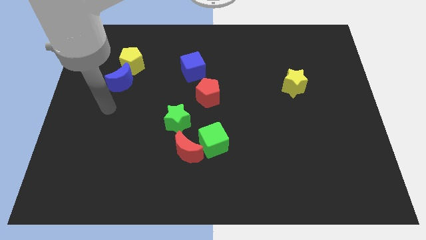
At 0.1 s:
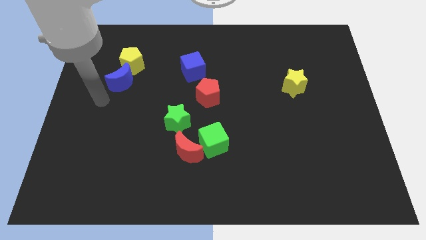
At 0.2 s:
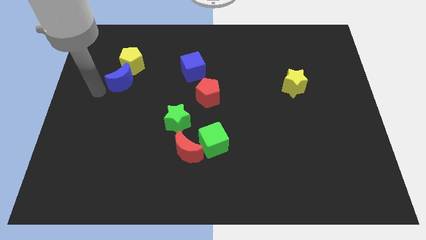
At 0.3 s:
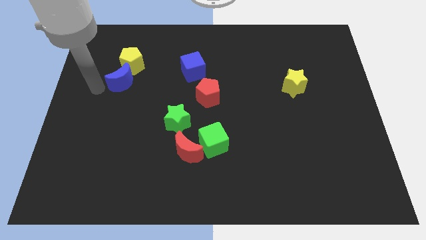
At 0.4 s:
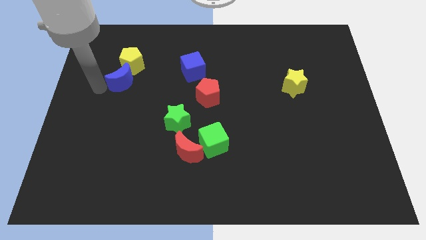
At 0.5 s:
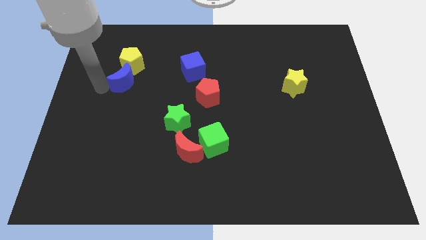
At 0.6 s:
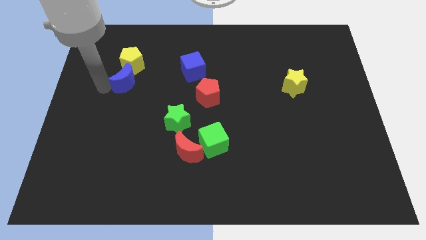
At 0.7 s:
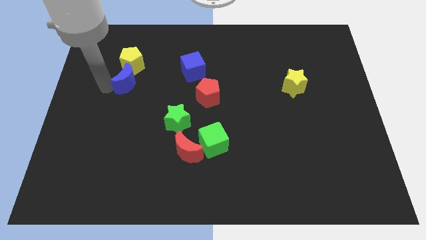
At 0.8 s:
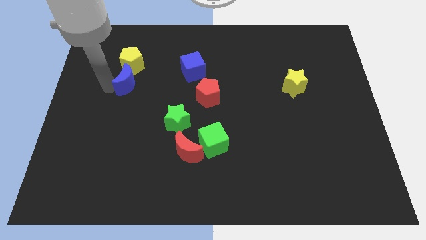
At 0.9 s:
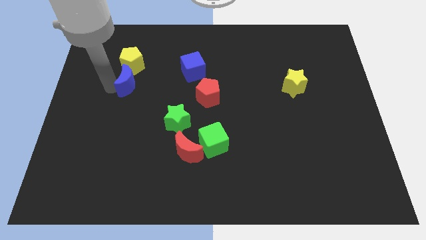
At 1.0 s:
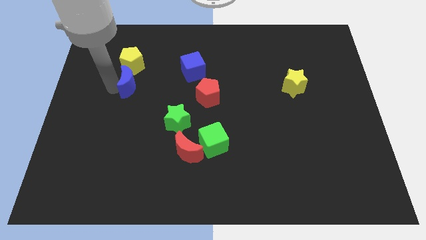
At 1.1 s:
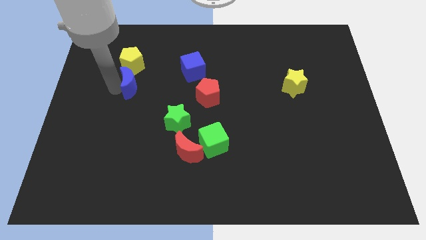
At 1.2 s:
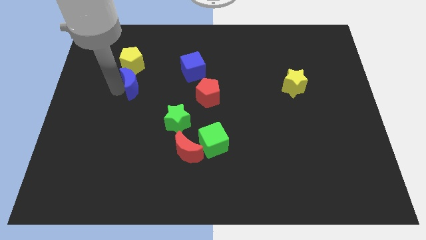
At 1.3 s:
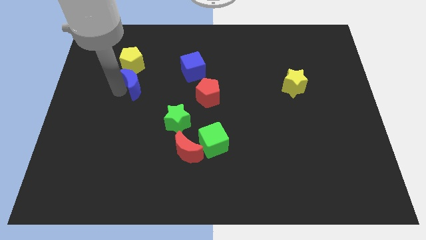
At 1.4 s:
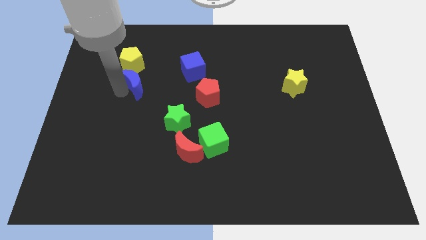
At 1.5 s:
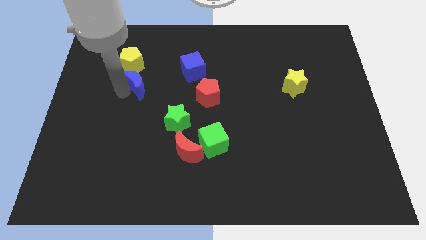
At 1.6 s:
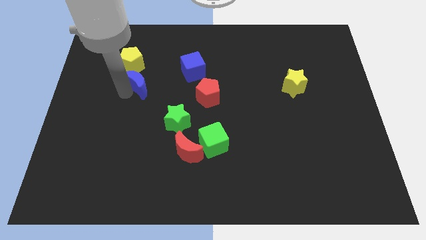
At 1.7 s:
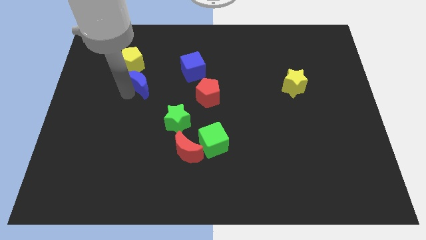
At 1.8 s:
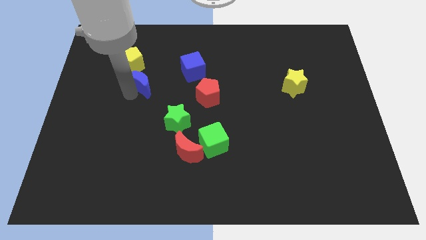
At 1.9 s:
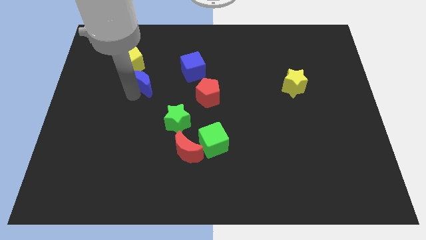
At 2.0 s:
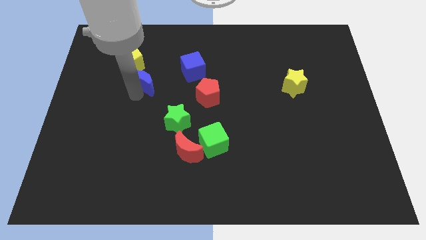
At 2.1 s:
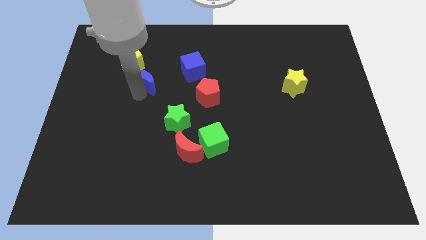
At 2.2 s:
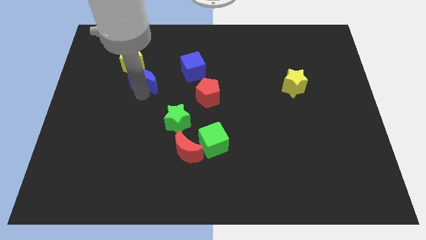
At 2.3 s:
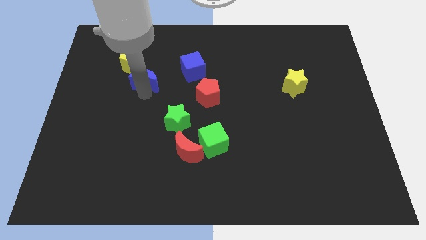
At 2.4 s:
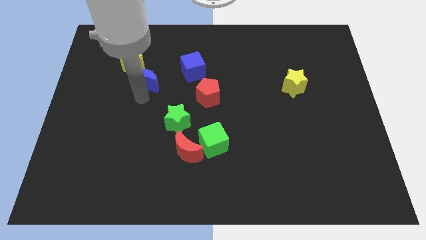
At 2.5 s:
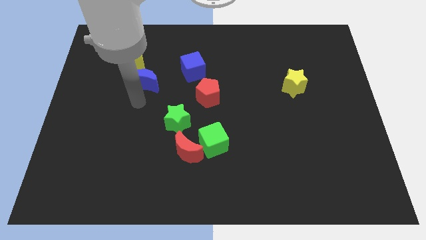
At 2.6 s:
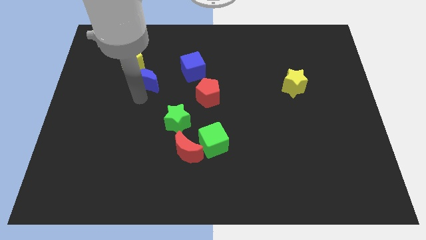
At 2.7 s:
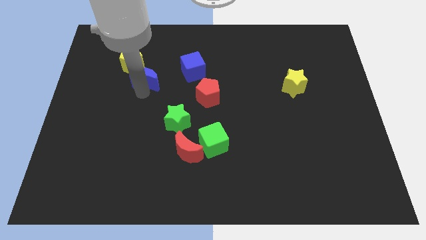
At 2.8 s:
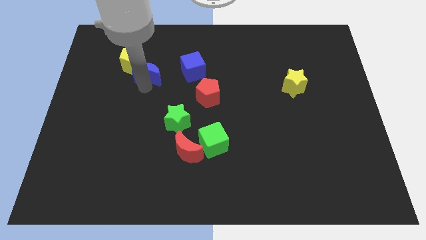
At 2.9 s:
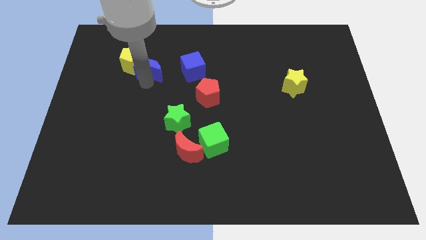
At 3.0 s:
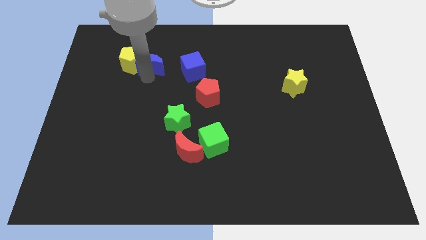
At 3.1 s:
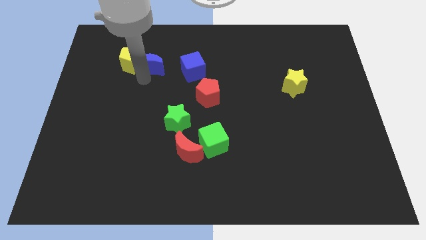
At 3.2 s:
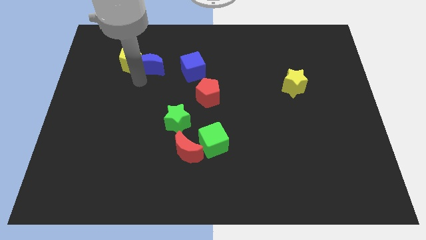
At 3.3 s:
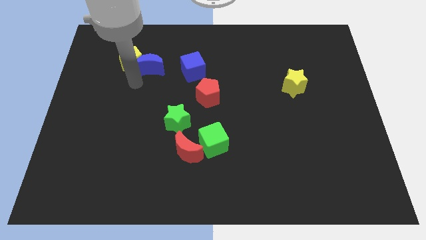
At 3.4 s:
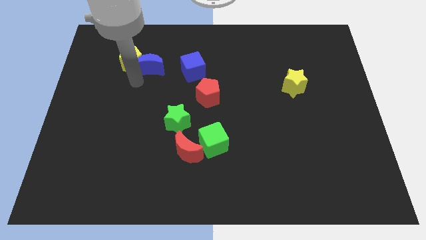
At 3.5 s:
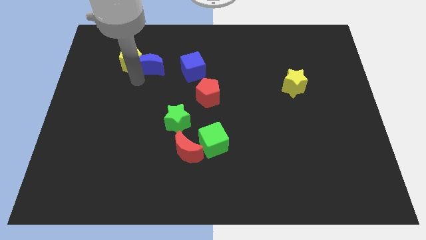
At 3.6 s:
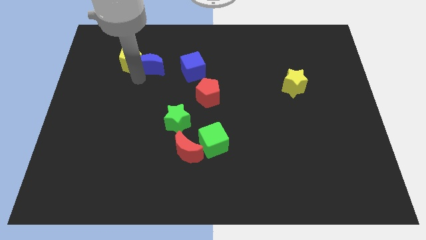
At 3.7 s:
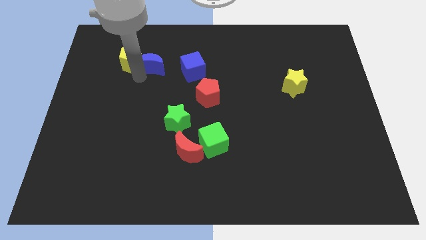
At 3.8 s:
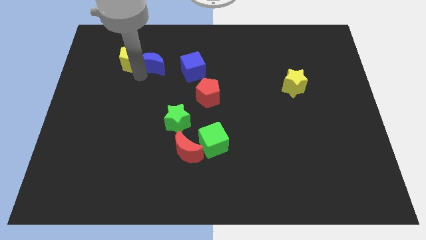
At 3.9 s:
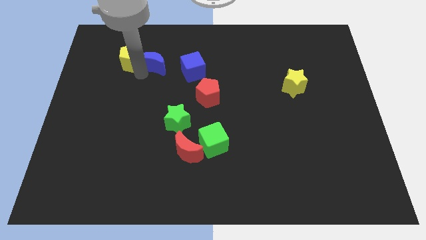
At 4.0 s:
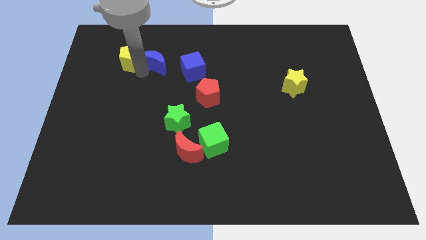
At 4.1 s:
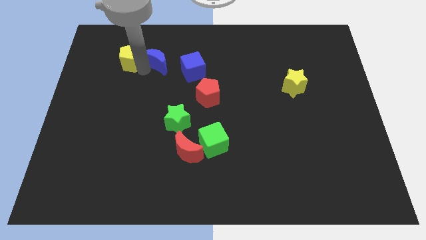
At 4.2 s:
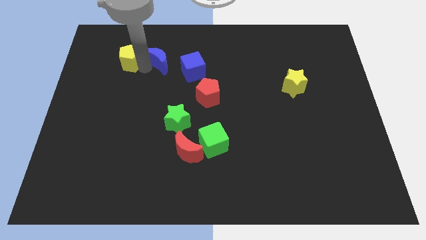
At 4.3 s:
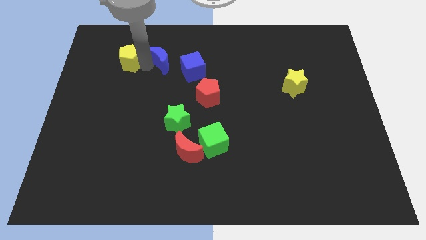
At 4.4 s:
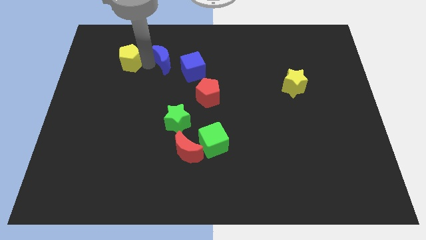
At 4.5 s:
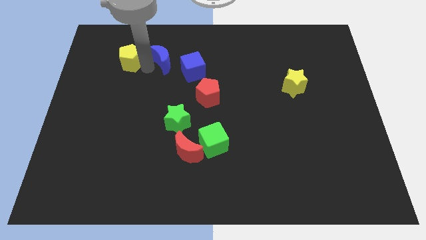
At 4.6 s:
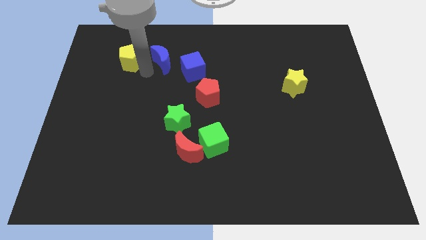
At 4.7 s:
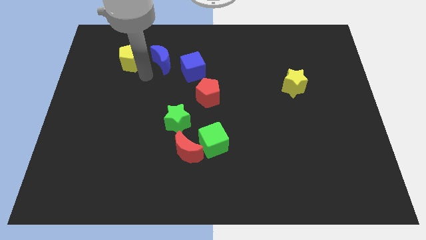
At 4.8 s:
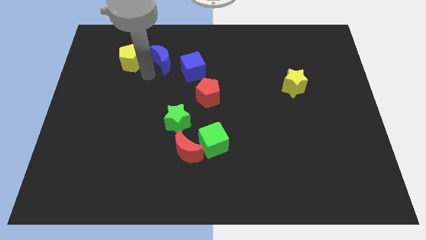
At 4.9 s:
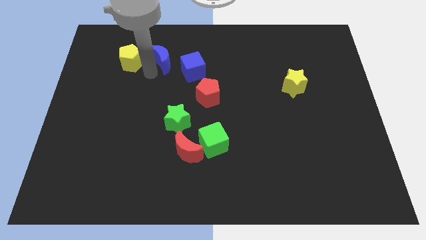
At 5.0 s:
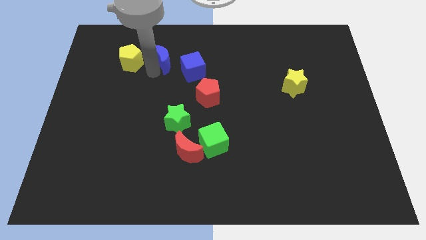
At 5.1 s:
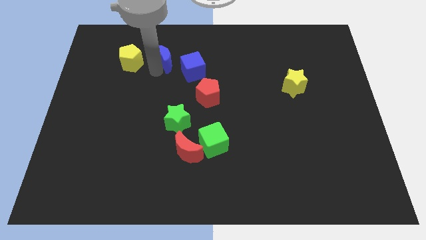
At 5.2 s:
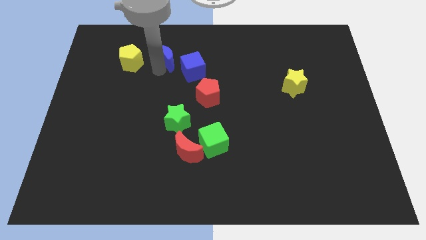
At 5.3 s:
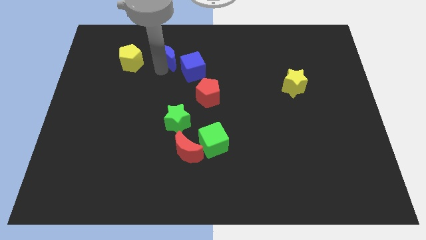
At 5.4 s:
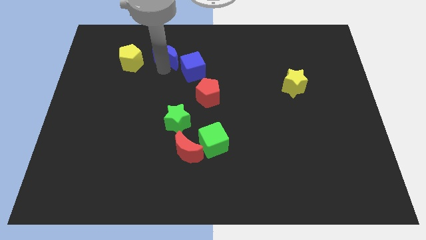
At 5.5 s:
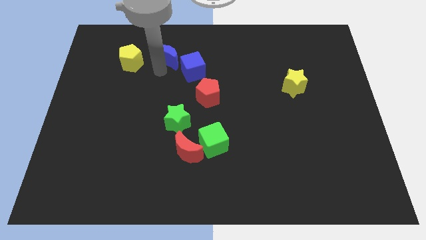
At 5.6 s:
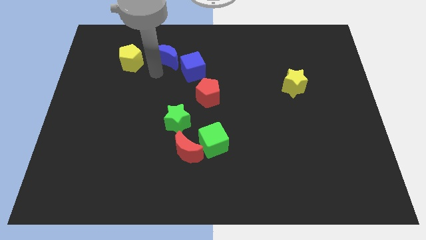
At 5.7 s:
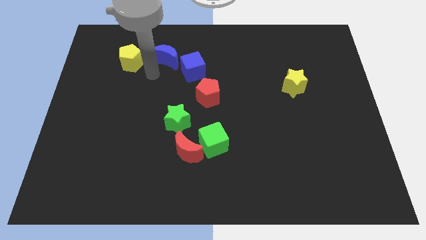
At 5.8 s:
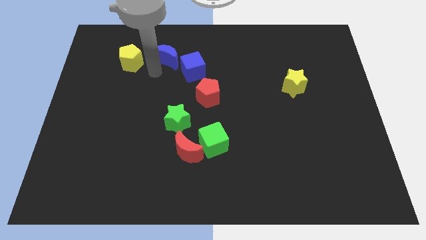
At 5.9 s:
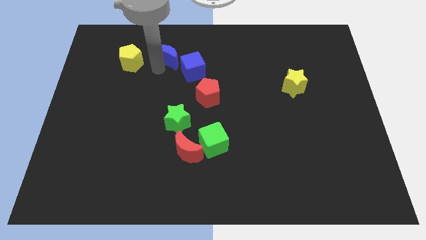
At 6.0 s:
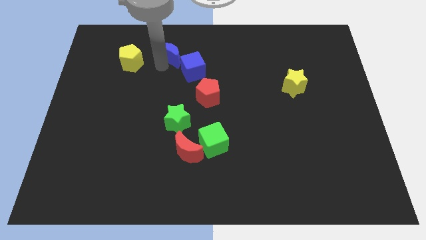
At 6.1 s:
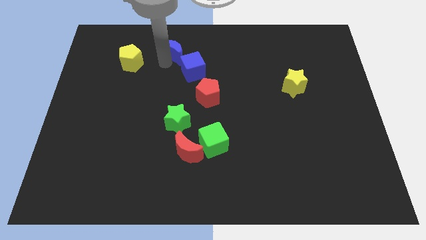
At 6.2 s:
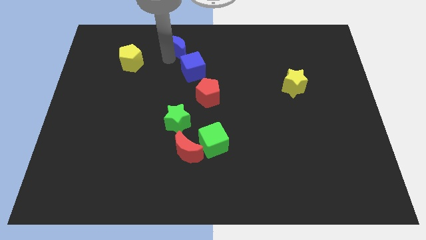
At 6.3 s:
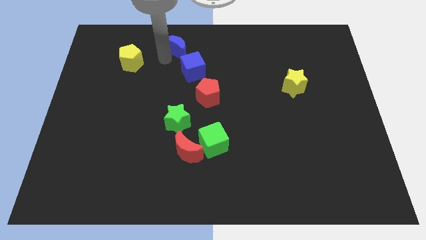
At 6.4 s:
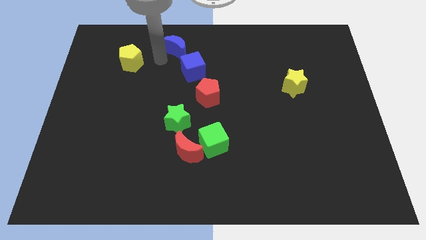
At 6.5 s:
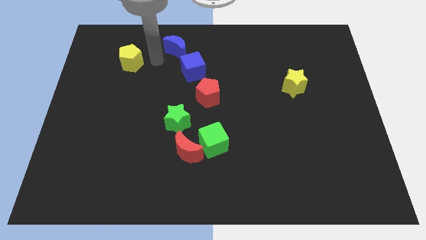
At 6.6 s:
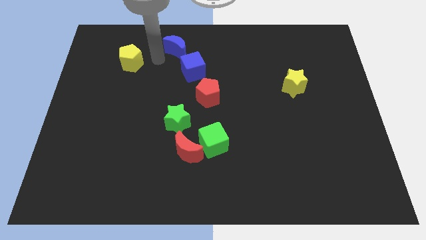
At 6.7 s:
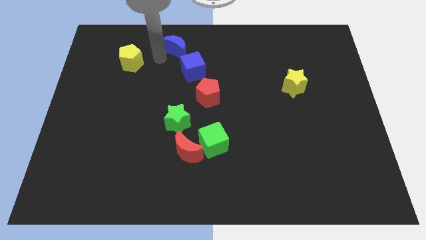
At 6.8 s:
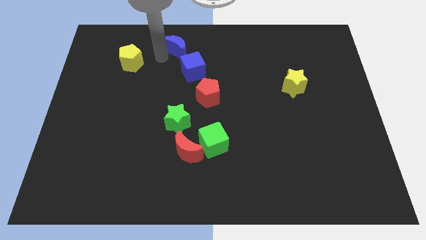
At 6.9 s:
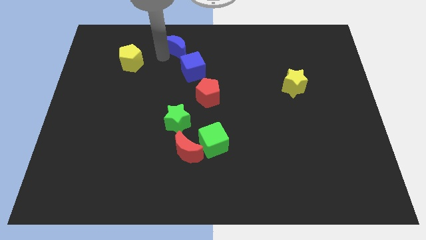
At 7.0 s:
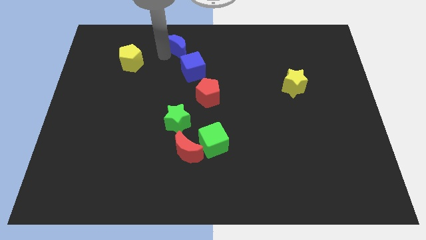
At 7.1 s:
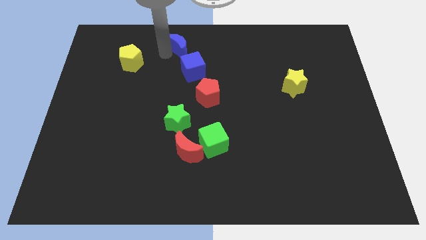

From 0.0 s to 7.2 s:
put the blue moon to the top
